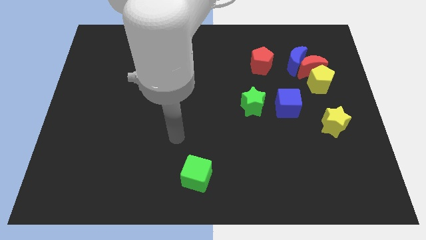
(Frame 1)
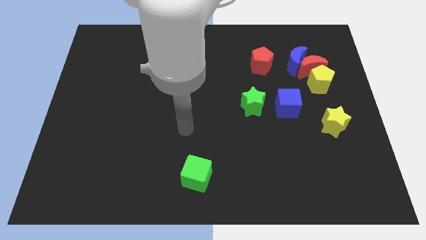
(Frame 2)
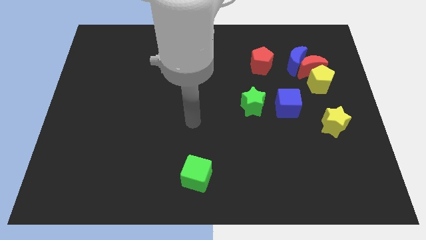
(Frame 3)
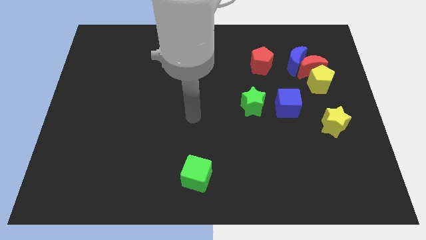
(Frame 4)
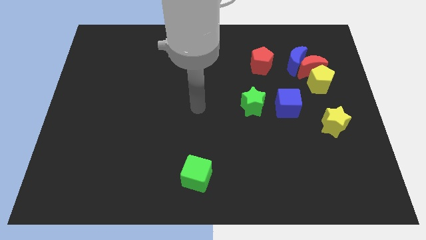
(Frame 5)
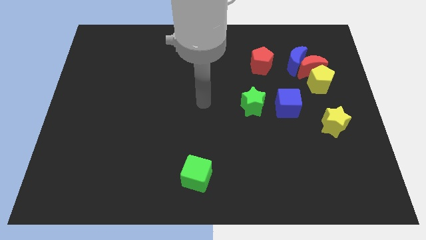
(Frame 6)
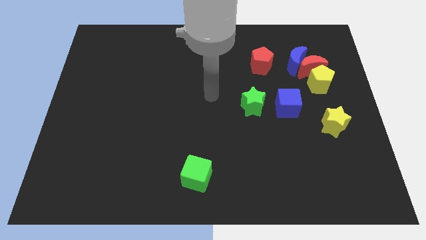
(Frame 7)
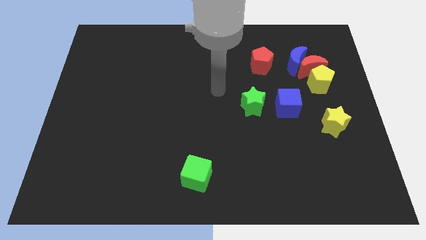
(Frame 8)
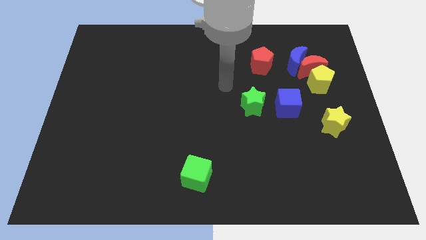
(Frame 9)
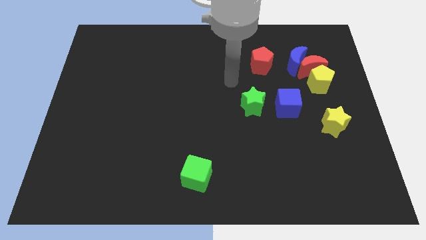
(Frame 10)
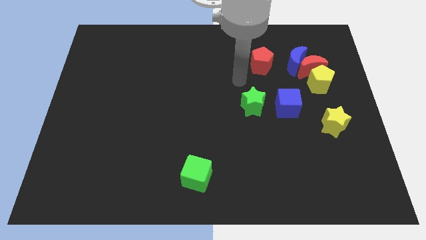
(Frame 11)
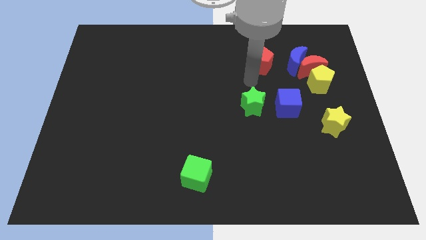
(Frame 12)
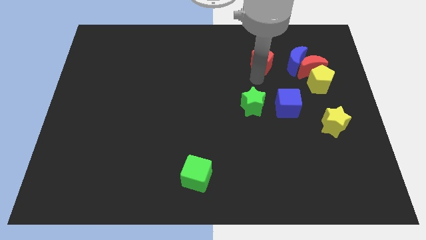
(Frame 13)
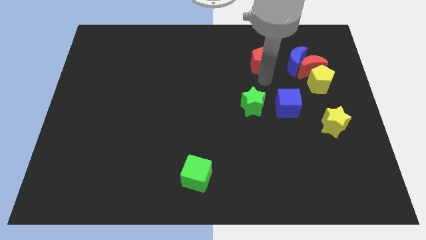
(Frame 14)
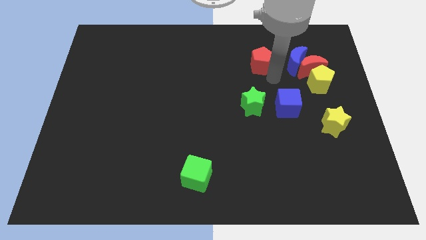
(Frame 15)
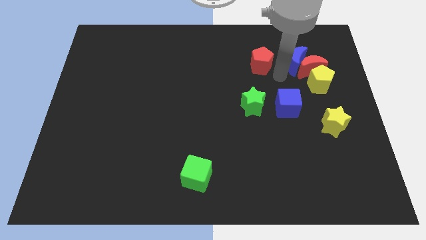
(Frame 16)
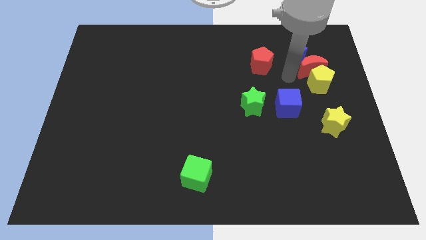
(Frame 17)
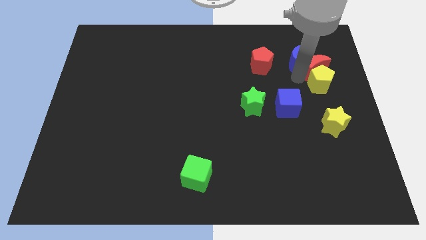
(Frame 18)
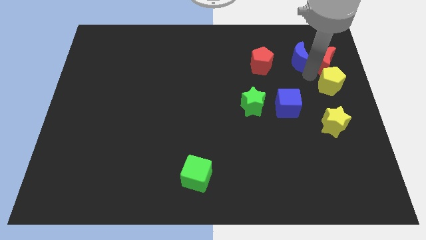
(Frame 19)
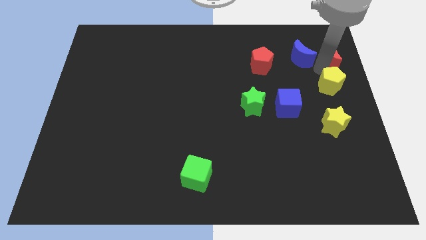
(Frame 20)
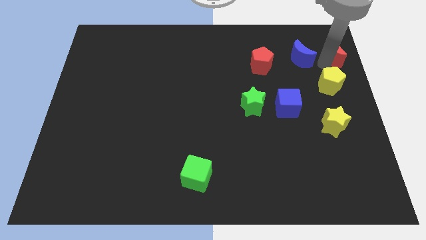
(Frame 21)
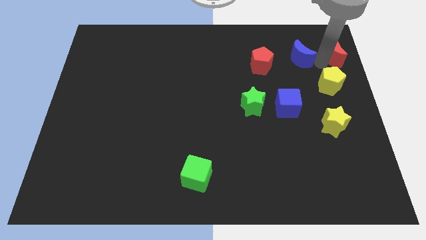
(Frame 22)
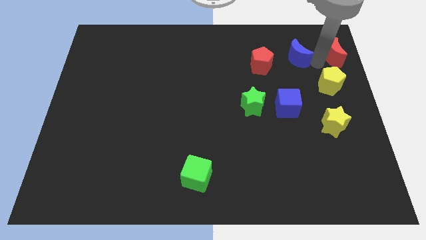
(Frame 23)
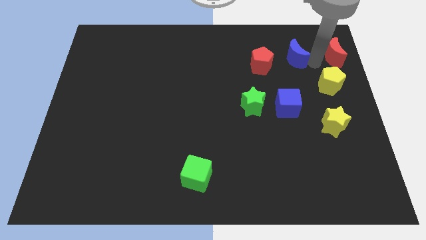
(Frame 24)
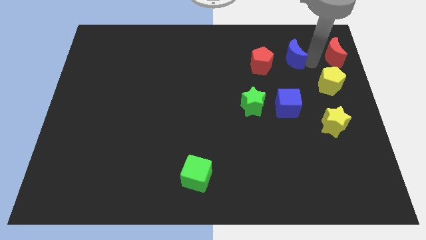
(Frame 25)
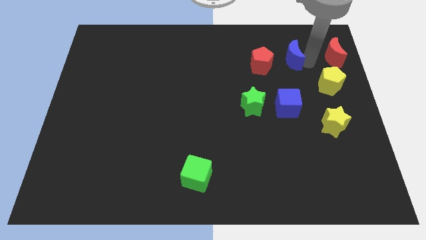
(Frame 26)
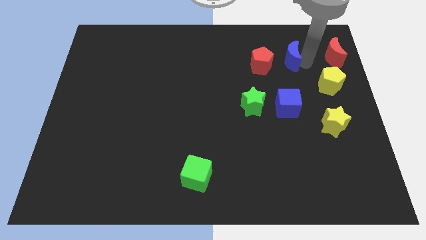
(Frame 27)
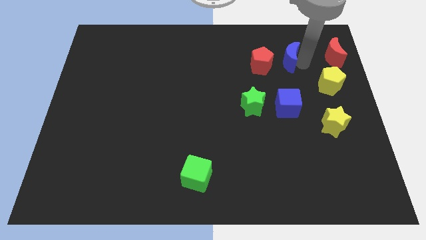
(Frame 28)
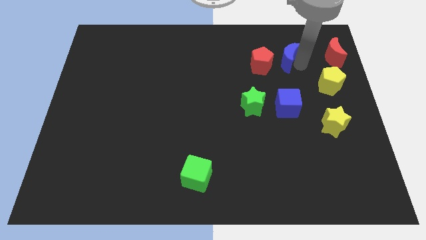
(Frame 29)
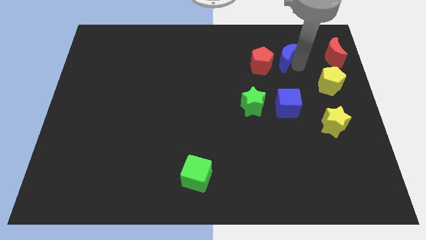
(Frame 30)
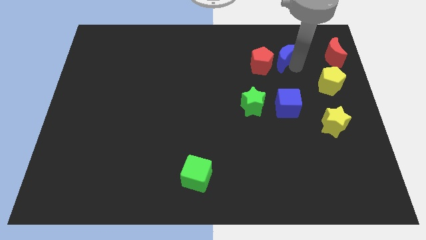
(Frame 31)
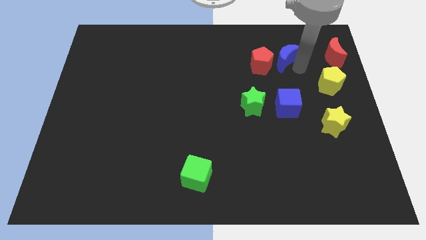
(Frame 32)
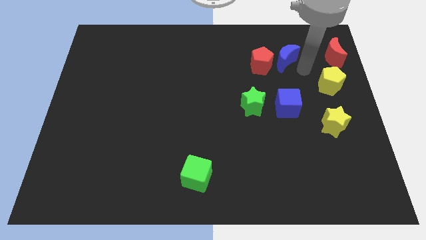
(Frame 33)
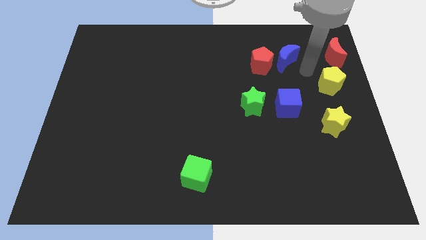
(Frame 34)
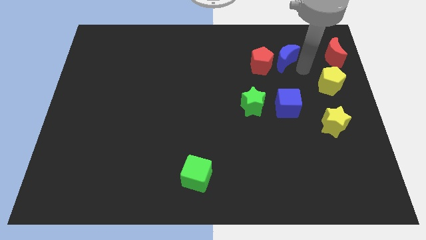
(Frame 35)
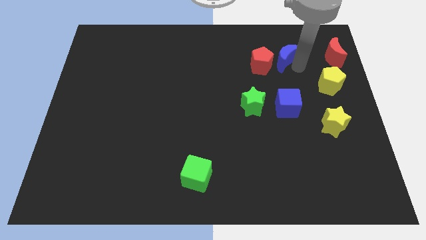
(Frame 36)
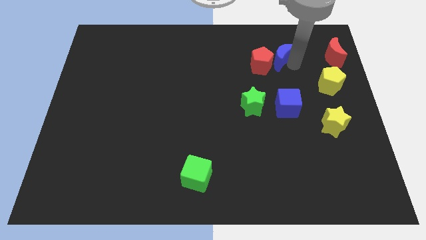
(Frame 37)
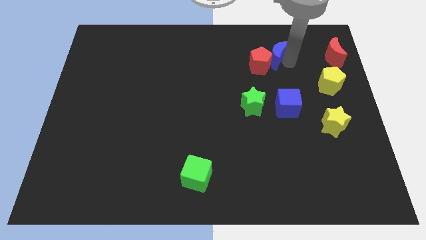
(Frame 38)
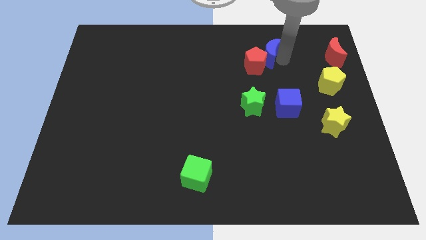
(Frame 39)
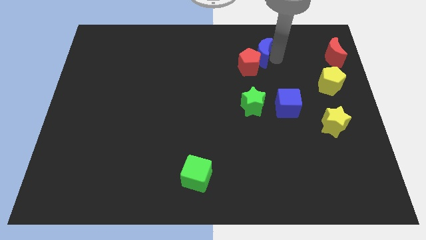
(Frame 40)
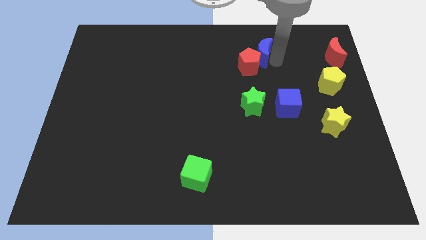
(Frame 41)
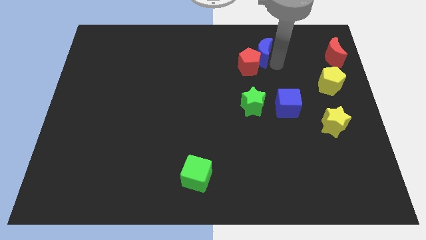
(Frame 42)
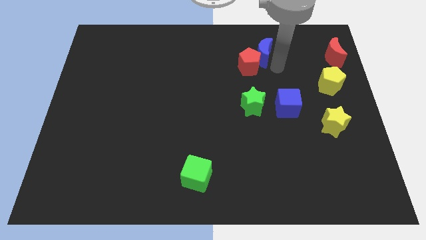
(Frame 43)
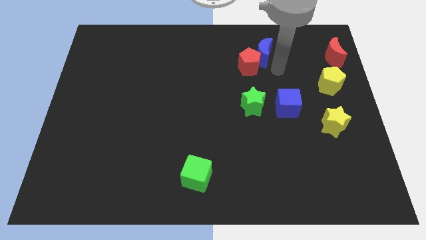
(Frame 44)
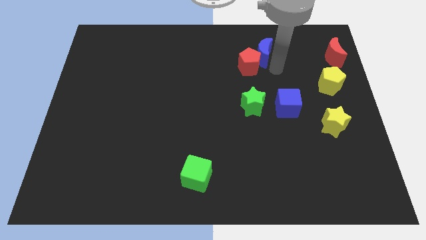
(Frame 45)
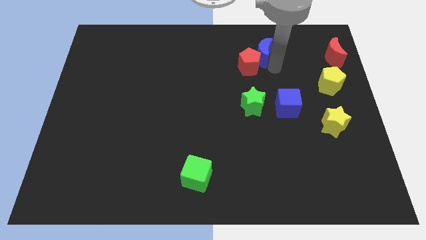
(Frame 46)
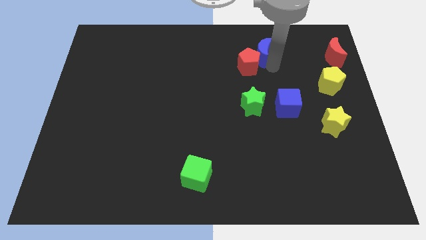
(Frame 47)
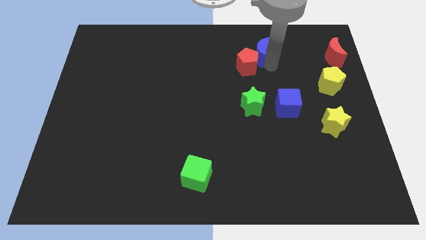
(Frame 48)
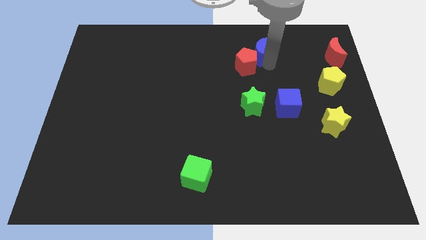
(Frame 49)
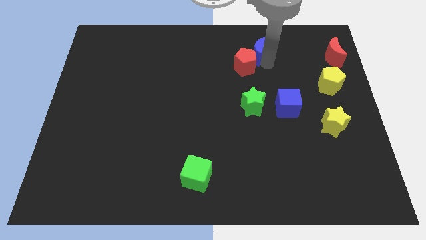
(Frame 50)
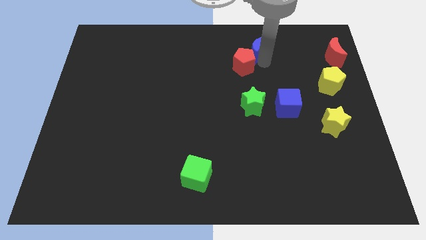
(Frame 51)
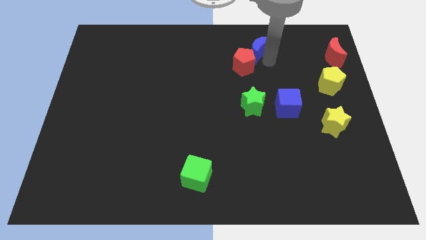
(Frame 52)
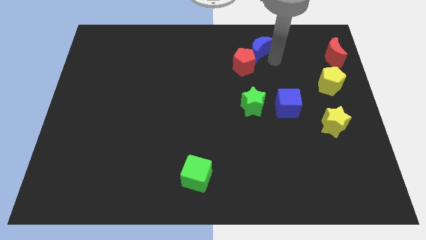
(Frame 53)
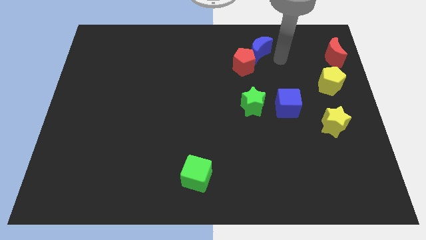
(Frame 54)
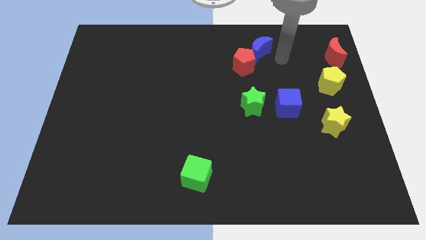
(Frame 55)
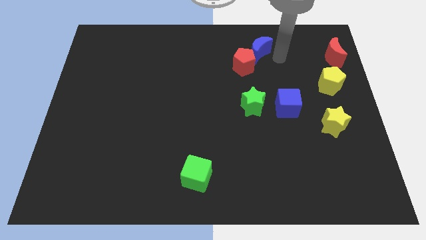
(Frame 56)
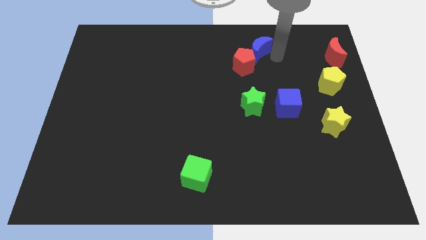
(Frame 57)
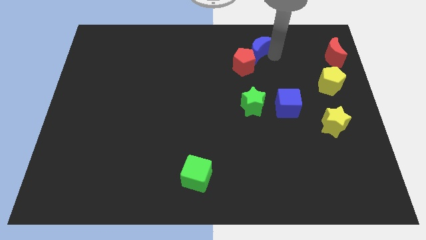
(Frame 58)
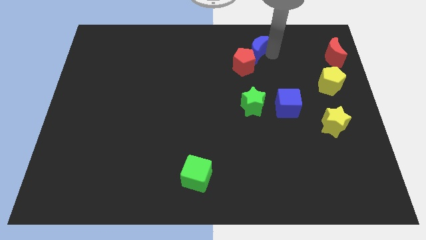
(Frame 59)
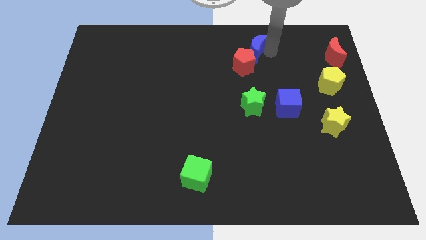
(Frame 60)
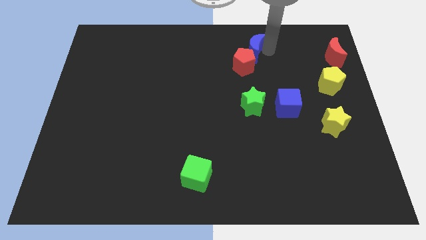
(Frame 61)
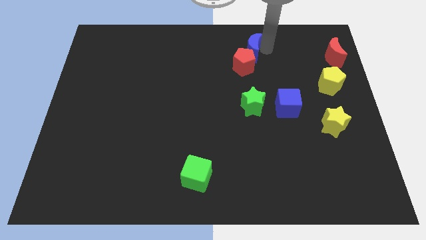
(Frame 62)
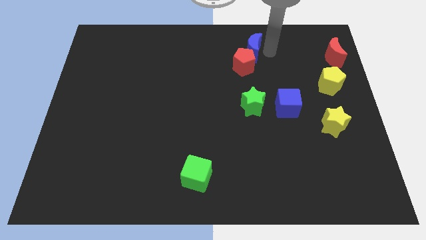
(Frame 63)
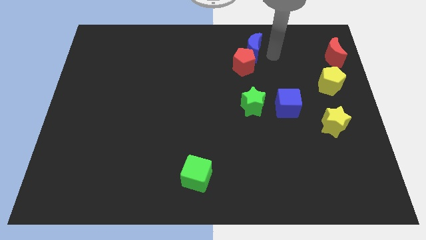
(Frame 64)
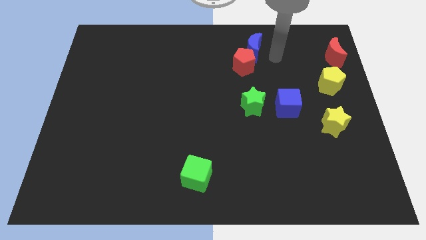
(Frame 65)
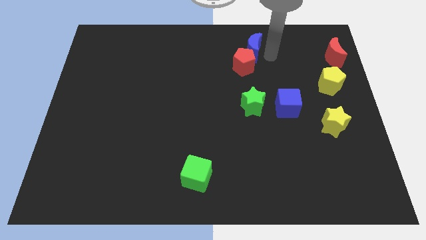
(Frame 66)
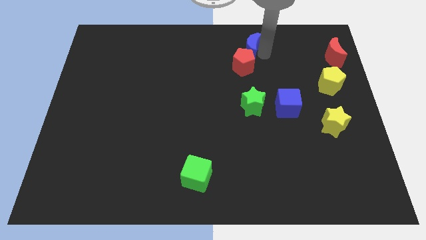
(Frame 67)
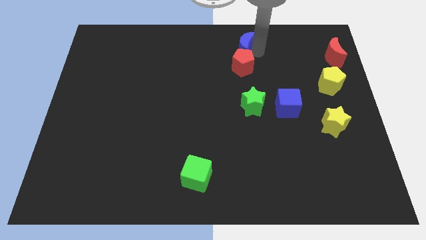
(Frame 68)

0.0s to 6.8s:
slide the blue moon to the towards your base
